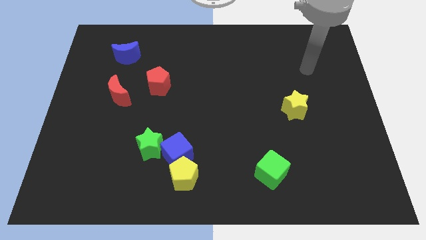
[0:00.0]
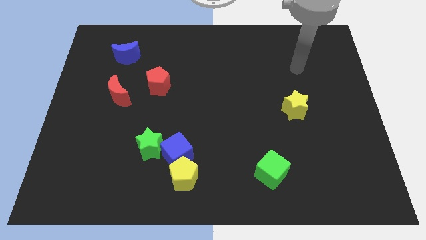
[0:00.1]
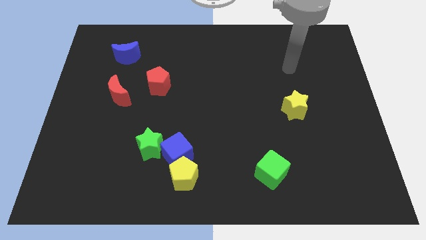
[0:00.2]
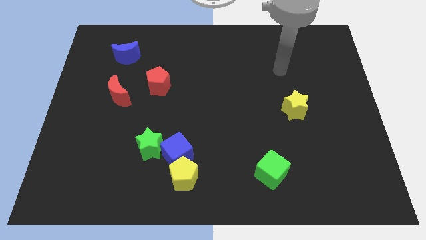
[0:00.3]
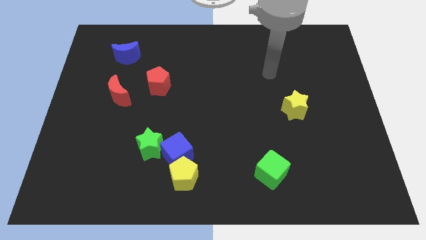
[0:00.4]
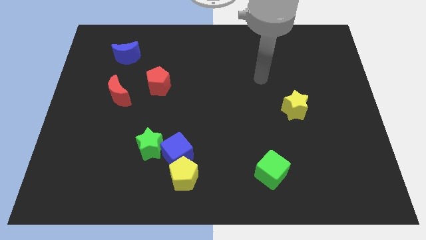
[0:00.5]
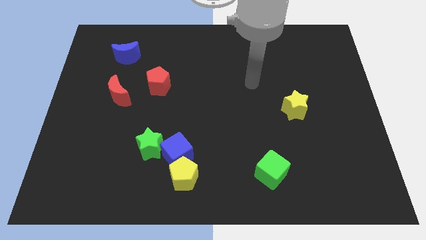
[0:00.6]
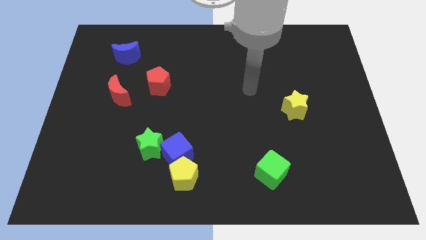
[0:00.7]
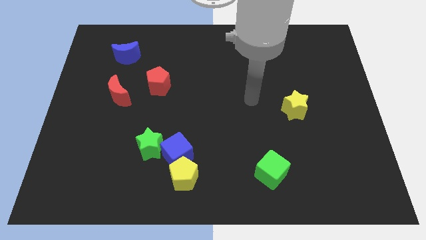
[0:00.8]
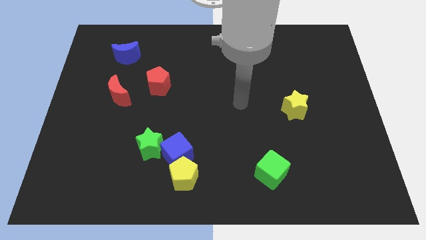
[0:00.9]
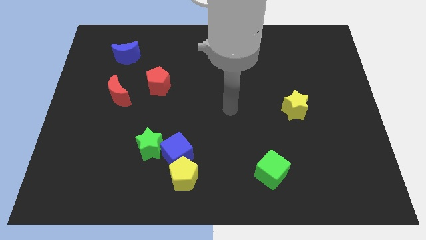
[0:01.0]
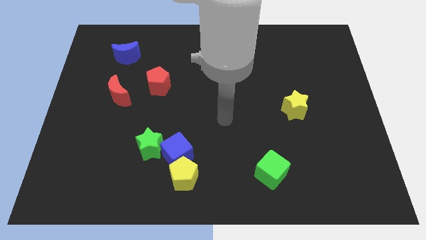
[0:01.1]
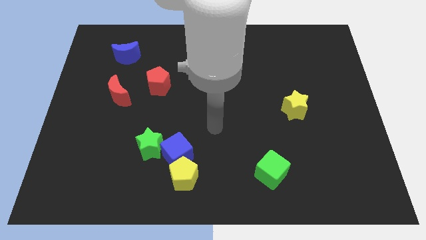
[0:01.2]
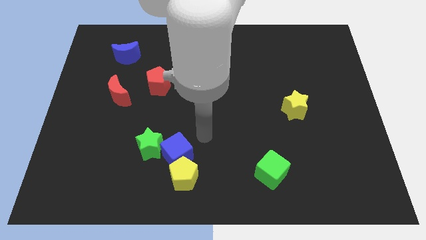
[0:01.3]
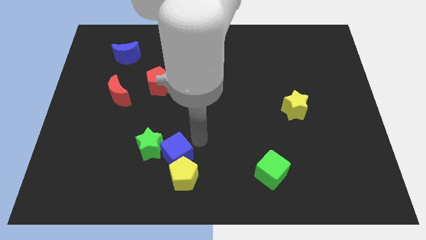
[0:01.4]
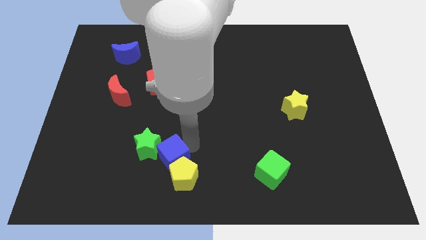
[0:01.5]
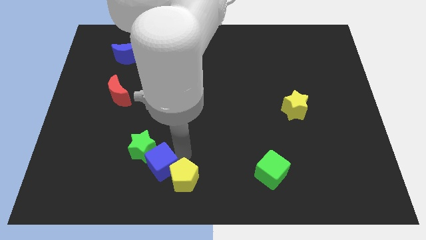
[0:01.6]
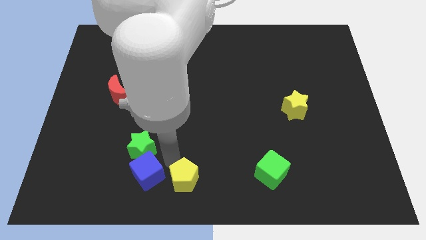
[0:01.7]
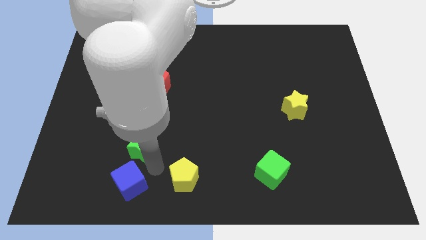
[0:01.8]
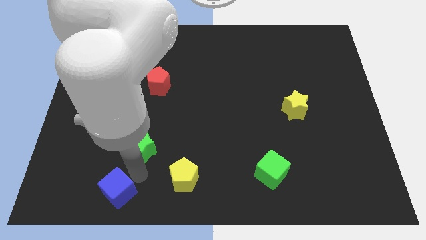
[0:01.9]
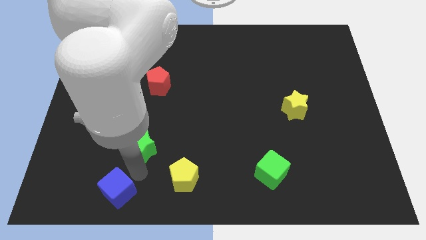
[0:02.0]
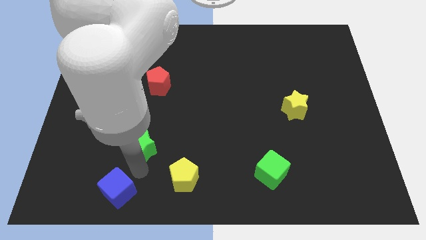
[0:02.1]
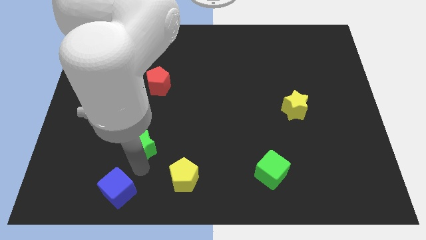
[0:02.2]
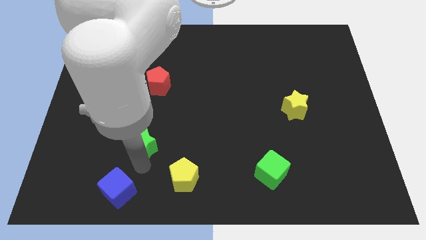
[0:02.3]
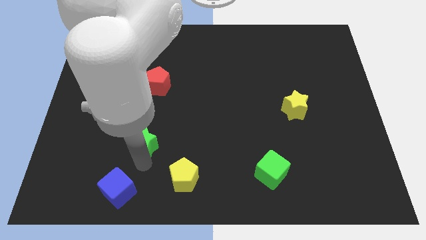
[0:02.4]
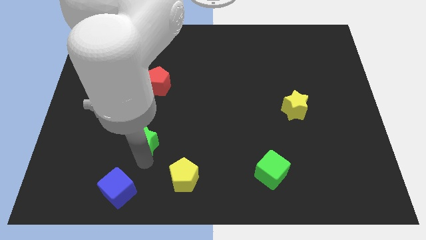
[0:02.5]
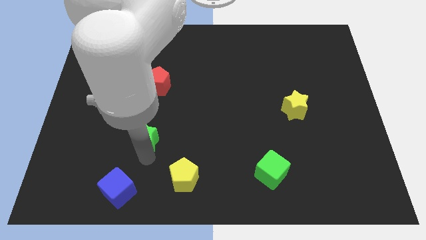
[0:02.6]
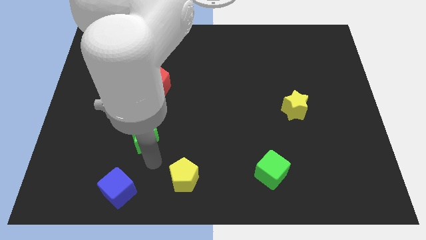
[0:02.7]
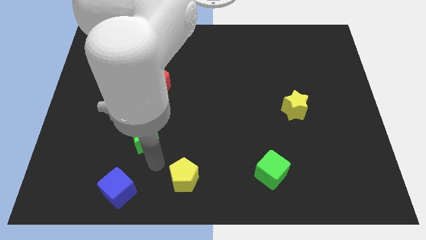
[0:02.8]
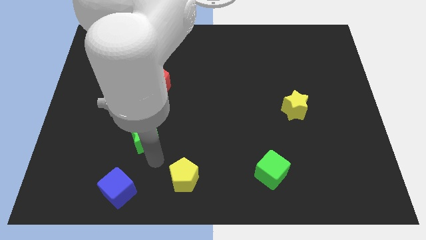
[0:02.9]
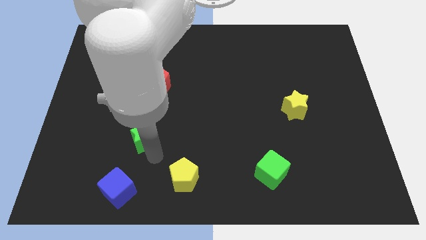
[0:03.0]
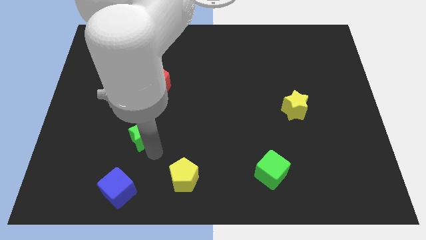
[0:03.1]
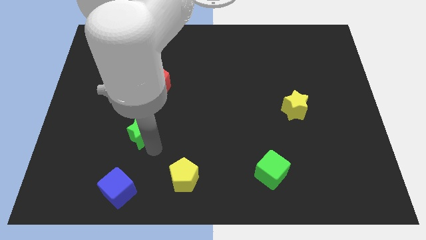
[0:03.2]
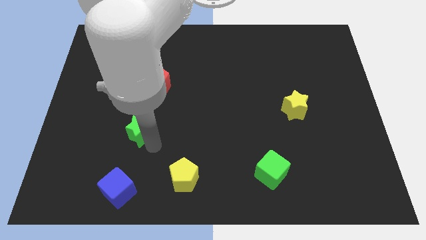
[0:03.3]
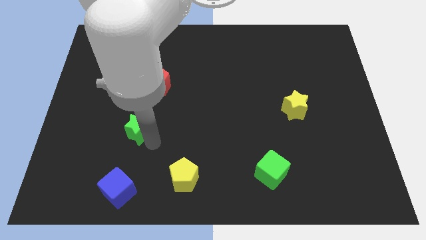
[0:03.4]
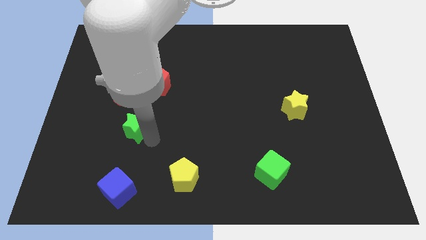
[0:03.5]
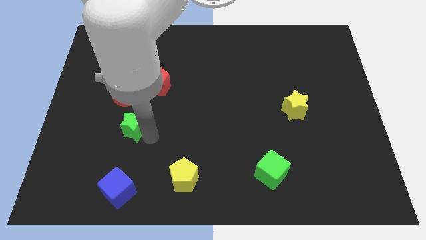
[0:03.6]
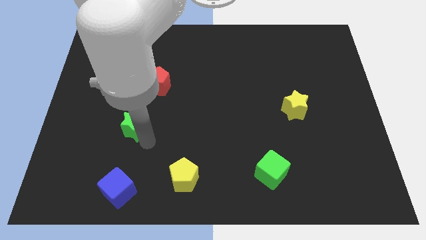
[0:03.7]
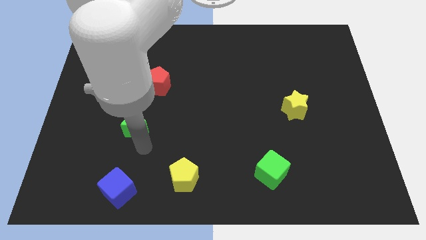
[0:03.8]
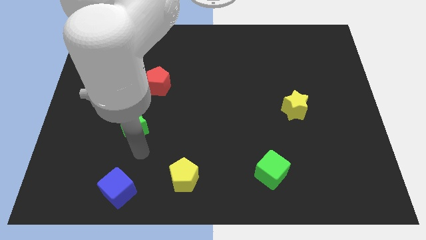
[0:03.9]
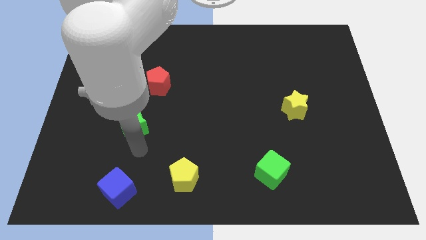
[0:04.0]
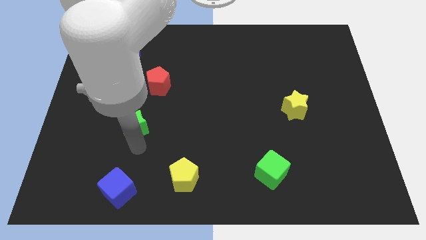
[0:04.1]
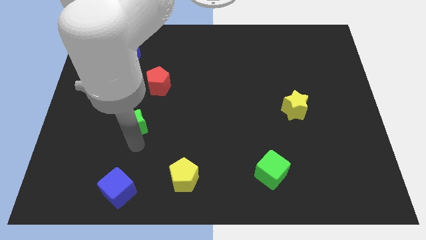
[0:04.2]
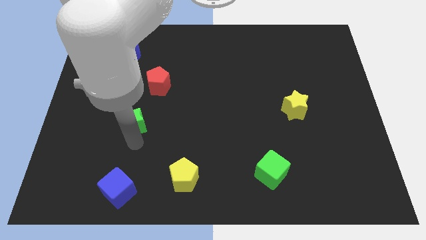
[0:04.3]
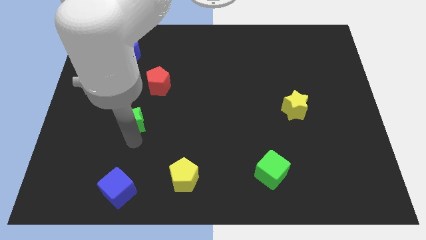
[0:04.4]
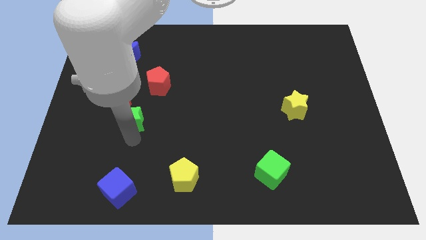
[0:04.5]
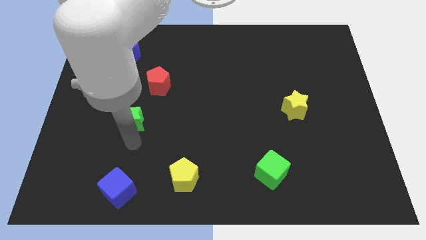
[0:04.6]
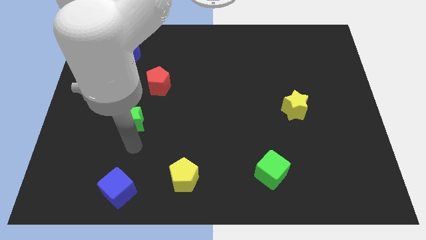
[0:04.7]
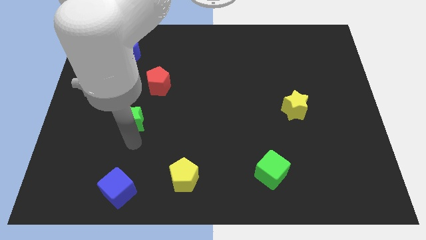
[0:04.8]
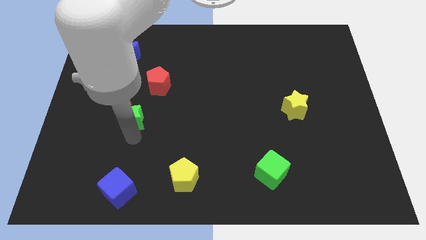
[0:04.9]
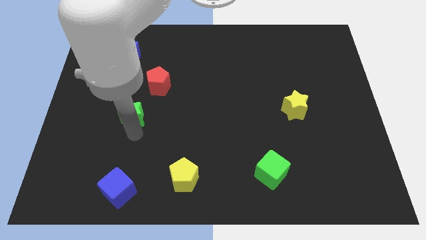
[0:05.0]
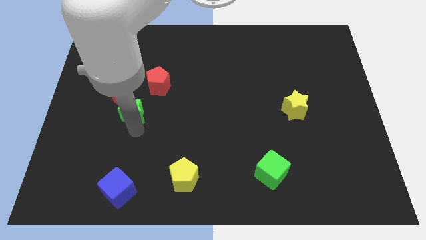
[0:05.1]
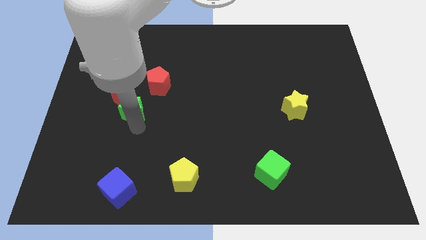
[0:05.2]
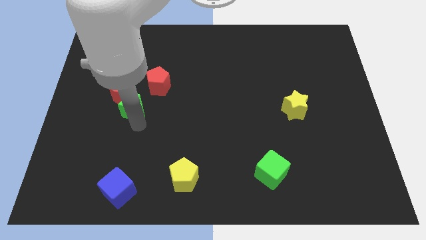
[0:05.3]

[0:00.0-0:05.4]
push the green star towards the red moon
